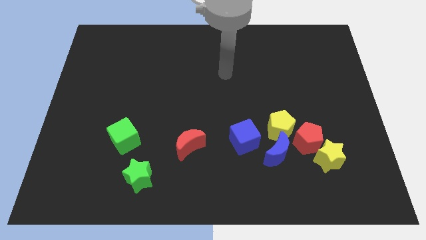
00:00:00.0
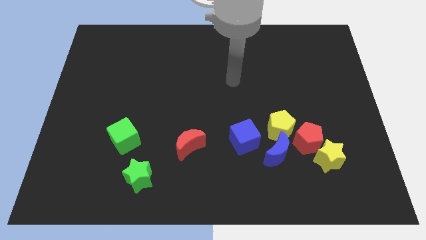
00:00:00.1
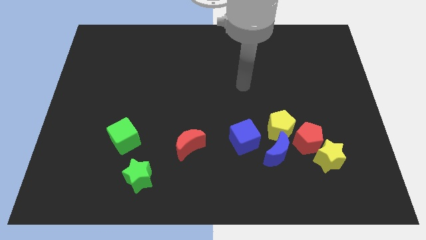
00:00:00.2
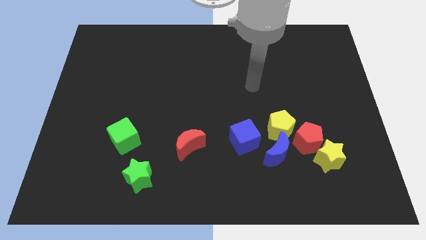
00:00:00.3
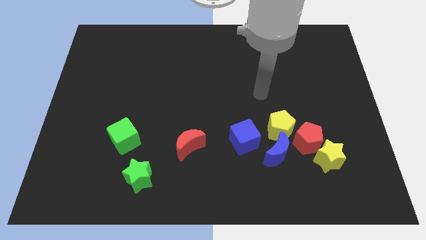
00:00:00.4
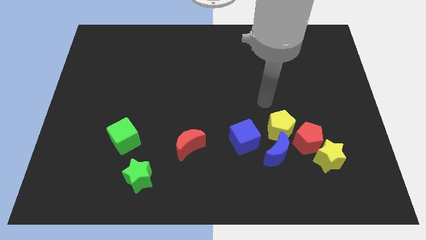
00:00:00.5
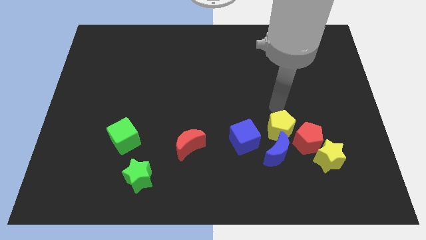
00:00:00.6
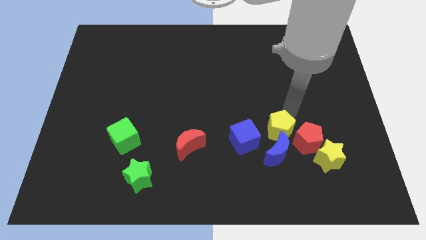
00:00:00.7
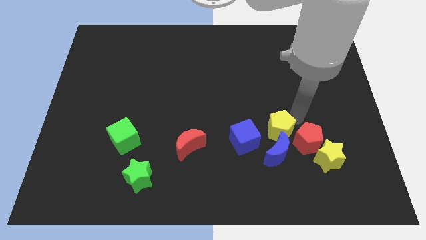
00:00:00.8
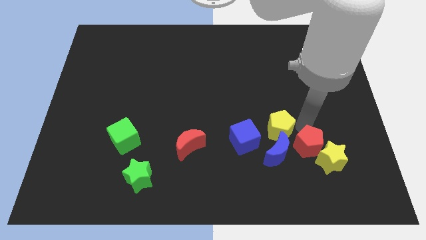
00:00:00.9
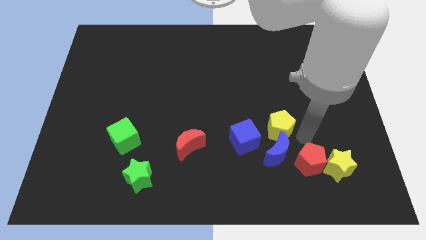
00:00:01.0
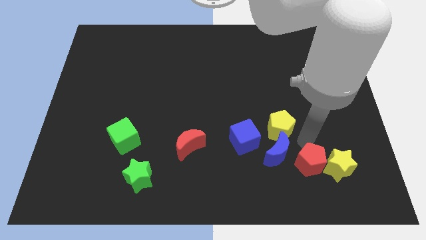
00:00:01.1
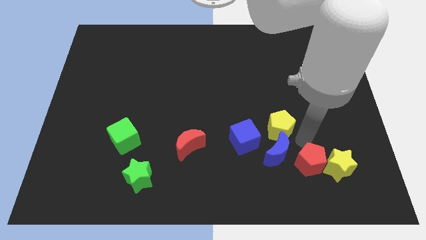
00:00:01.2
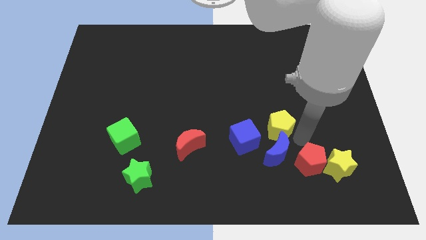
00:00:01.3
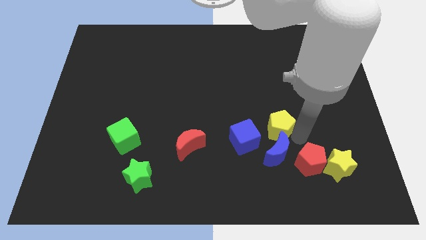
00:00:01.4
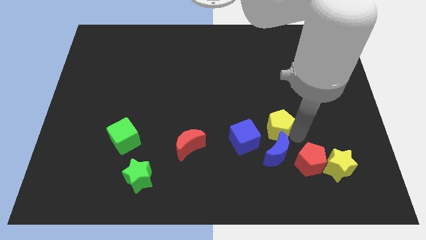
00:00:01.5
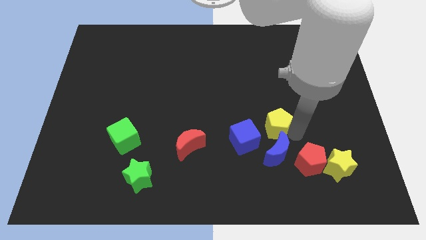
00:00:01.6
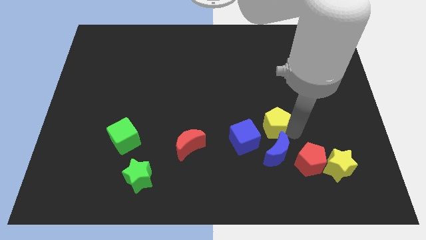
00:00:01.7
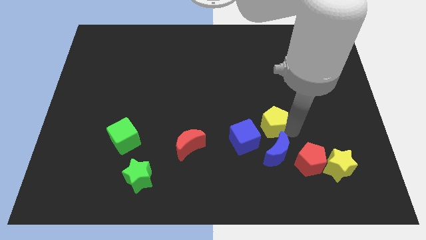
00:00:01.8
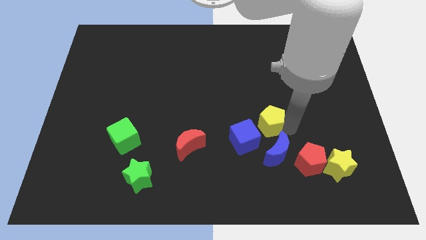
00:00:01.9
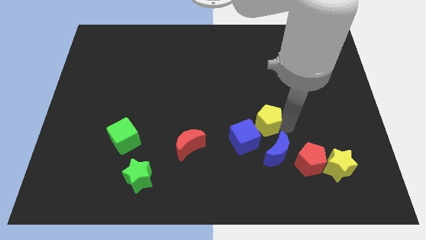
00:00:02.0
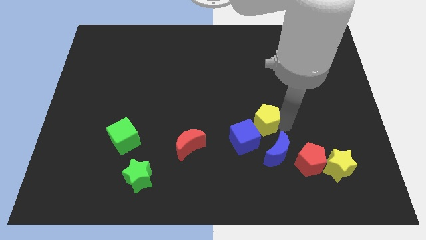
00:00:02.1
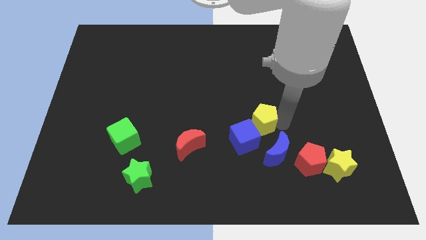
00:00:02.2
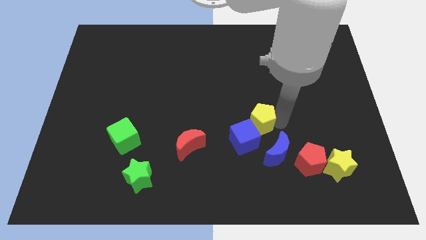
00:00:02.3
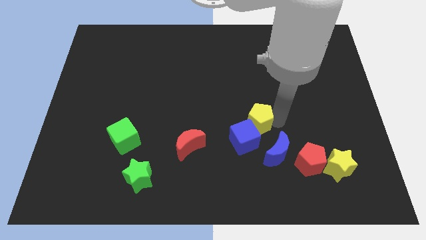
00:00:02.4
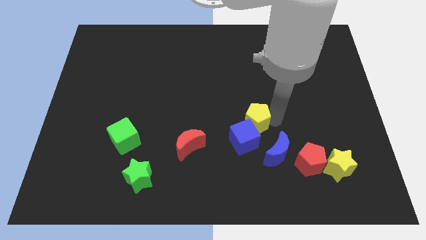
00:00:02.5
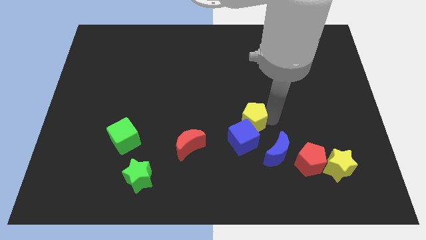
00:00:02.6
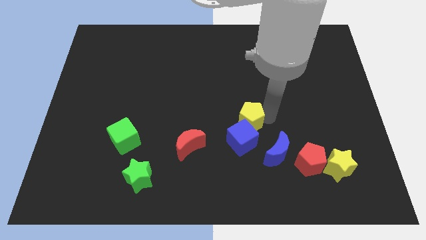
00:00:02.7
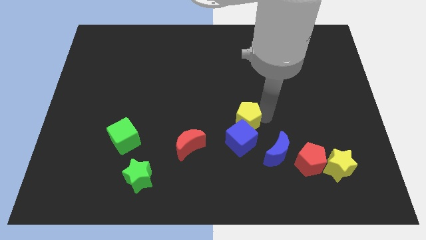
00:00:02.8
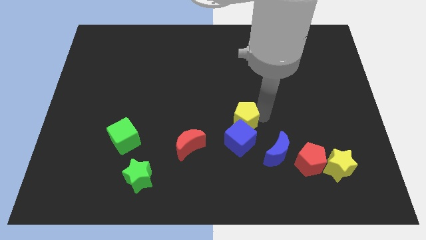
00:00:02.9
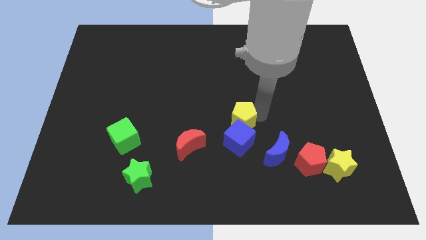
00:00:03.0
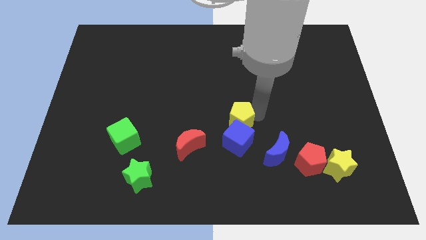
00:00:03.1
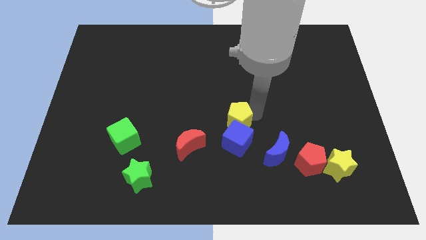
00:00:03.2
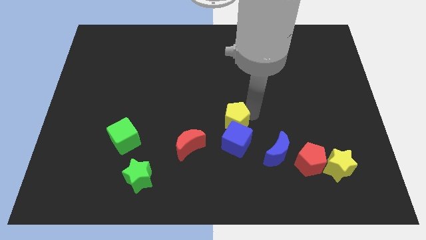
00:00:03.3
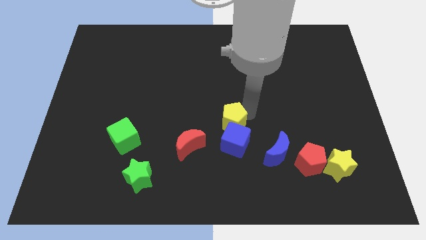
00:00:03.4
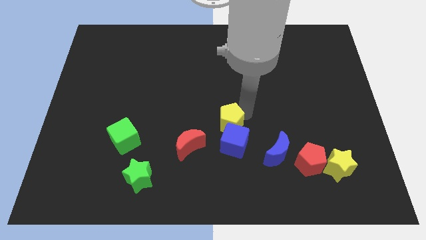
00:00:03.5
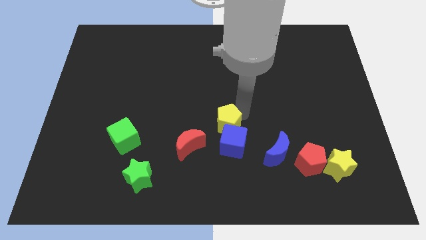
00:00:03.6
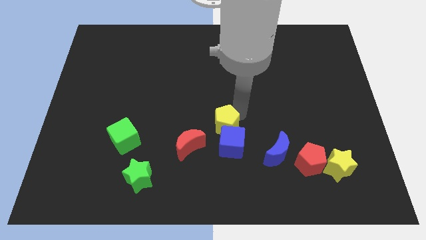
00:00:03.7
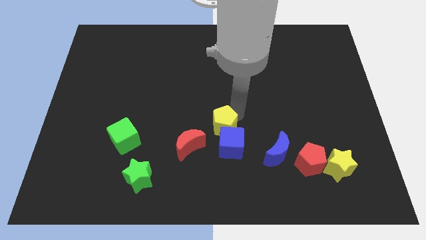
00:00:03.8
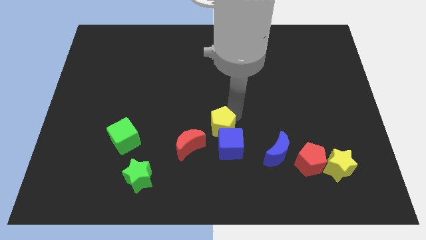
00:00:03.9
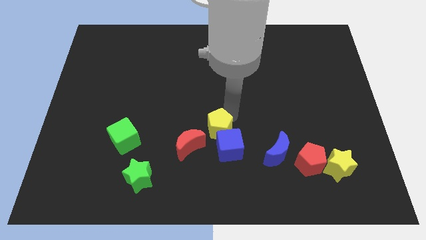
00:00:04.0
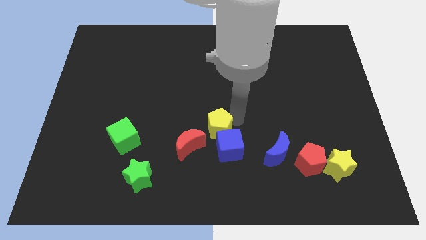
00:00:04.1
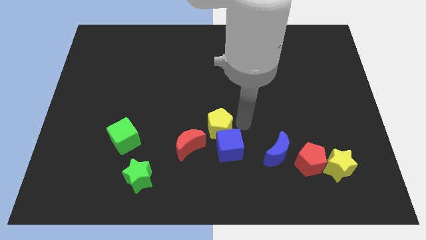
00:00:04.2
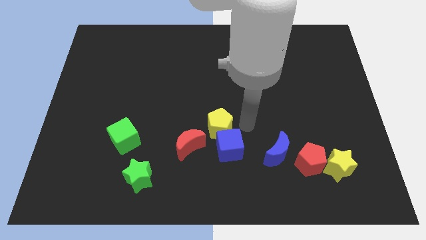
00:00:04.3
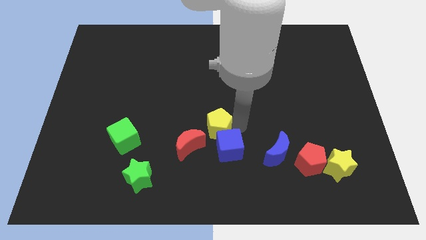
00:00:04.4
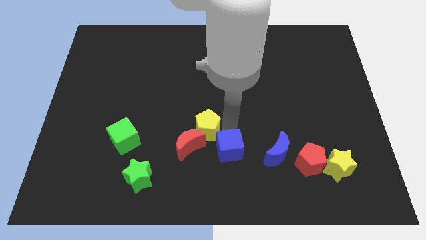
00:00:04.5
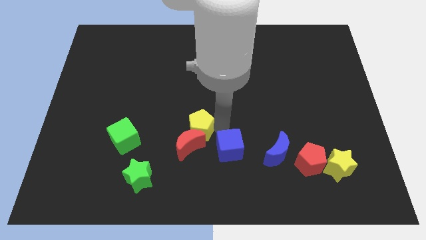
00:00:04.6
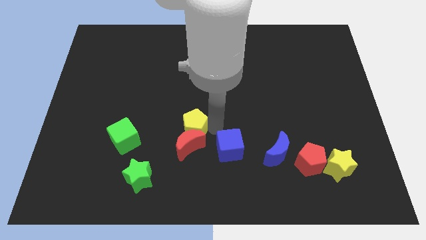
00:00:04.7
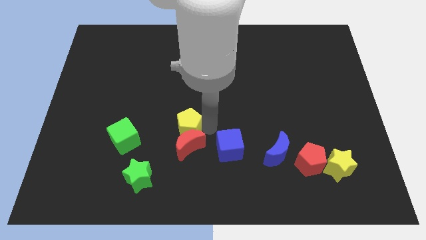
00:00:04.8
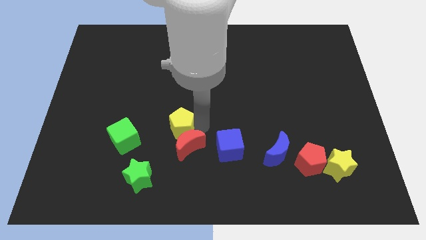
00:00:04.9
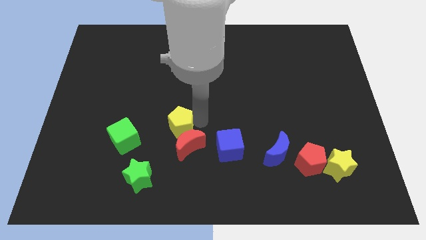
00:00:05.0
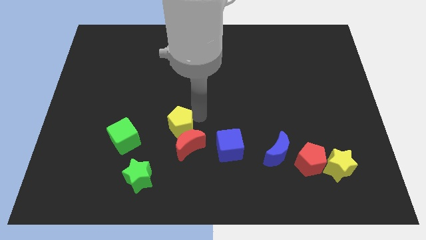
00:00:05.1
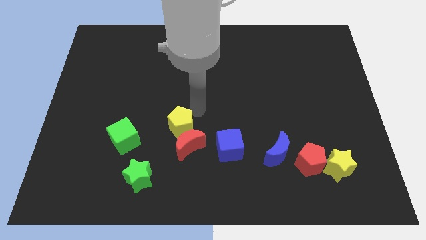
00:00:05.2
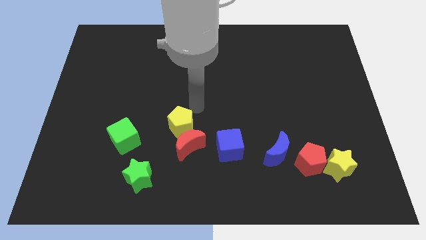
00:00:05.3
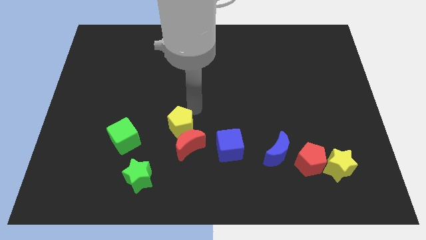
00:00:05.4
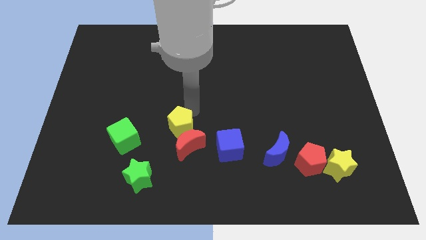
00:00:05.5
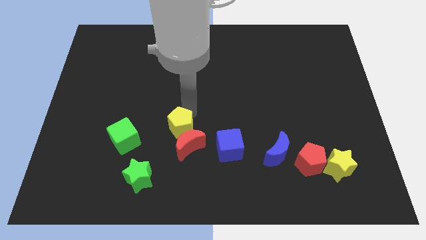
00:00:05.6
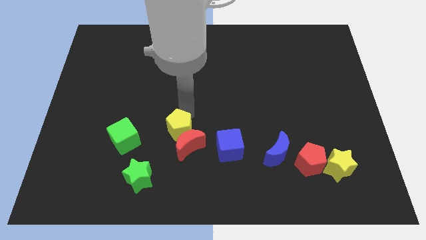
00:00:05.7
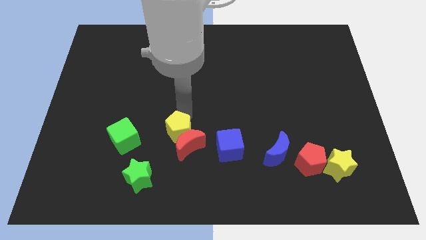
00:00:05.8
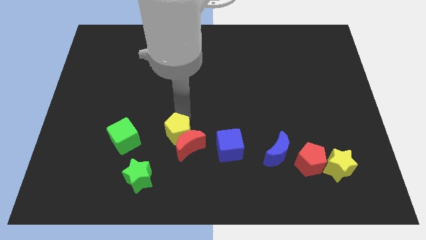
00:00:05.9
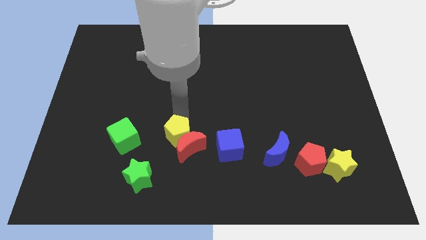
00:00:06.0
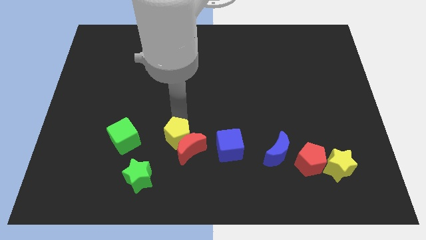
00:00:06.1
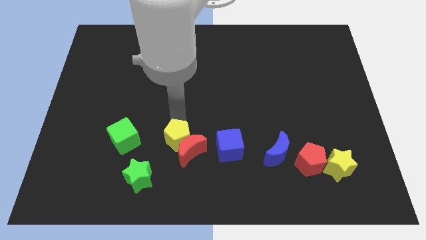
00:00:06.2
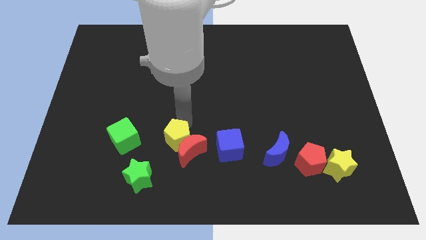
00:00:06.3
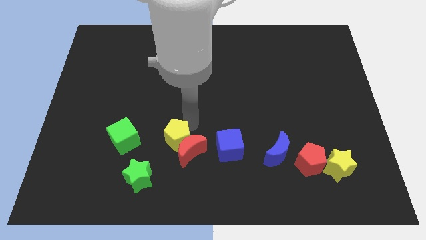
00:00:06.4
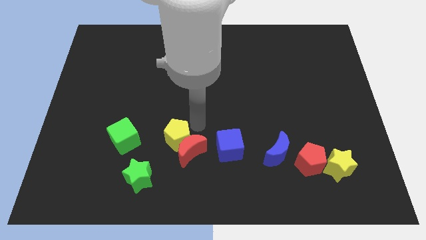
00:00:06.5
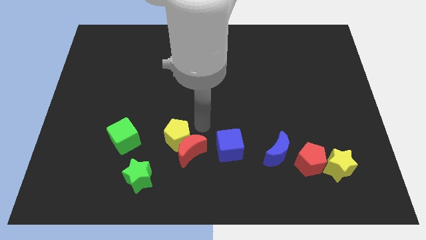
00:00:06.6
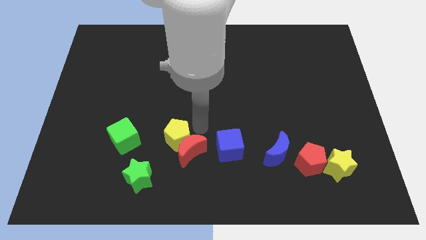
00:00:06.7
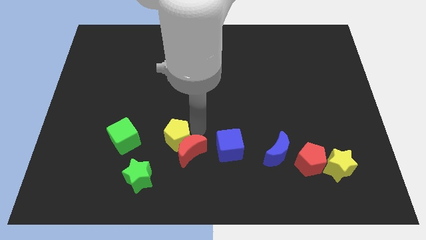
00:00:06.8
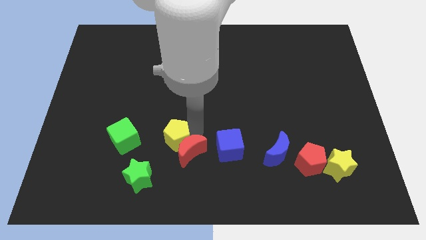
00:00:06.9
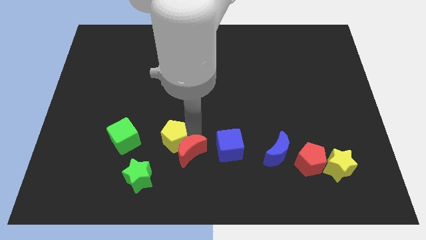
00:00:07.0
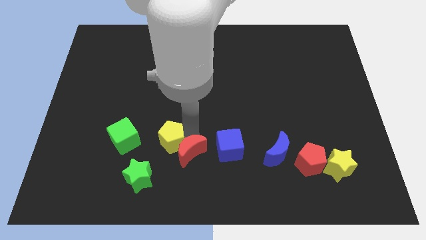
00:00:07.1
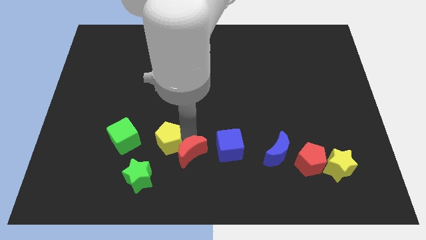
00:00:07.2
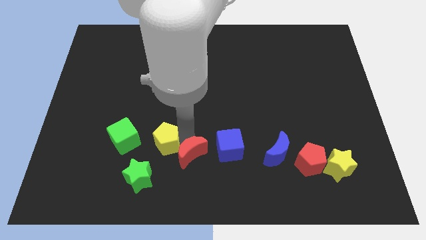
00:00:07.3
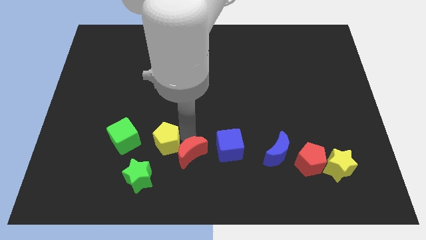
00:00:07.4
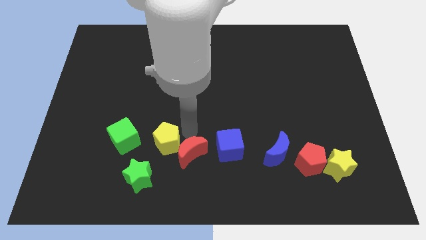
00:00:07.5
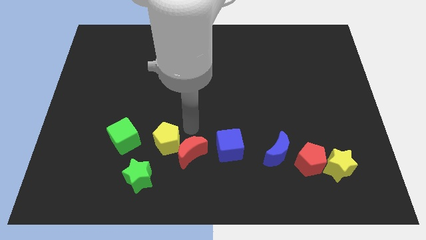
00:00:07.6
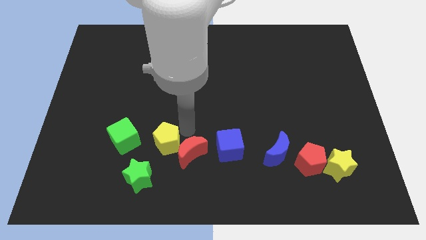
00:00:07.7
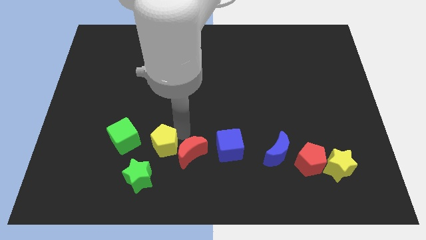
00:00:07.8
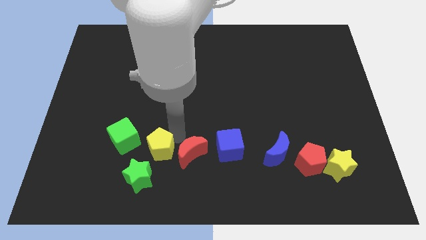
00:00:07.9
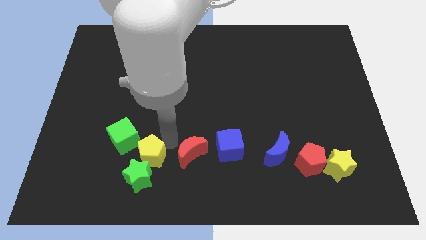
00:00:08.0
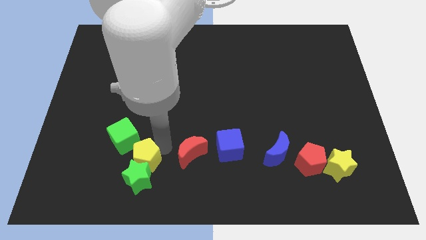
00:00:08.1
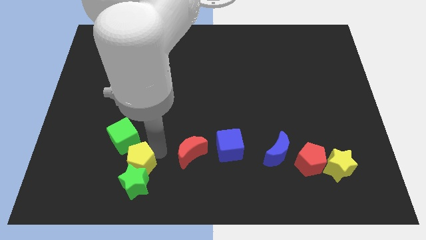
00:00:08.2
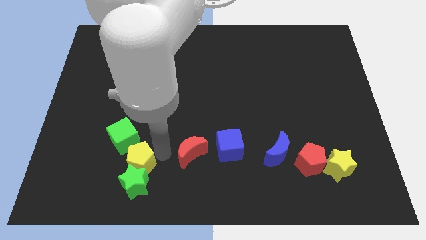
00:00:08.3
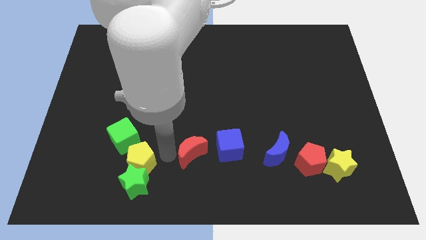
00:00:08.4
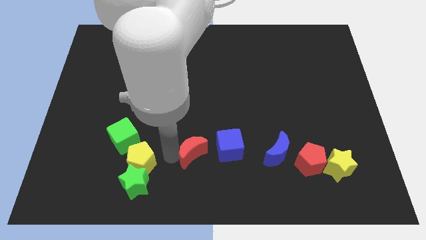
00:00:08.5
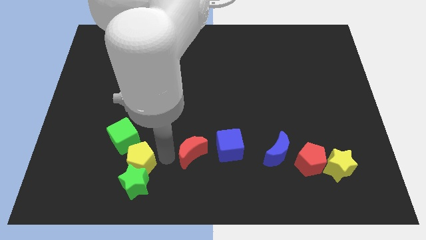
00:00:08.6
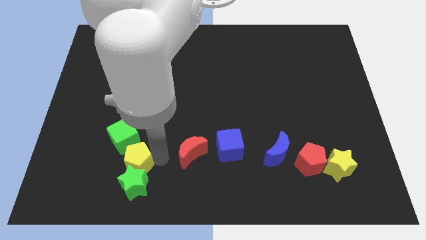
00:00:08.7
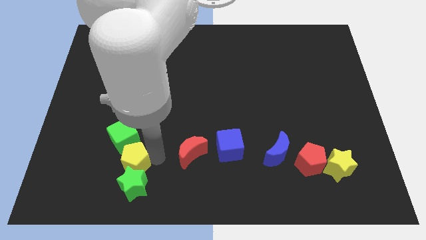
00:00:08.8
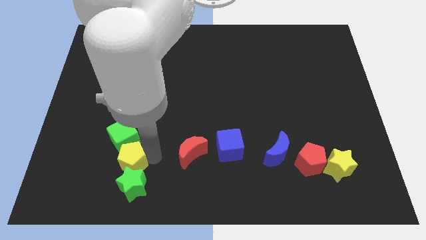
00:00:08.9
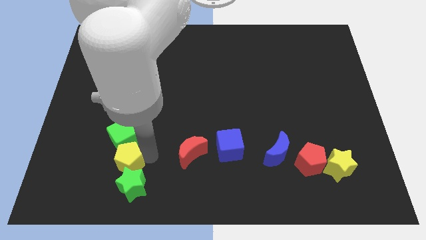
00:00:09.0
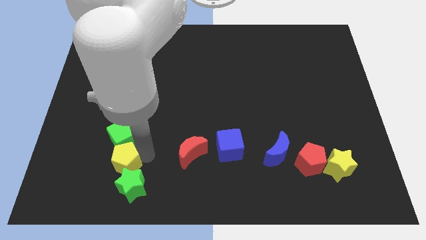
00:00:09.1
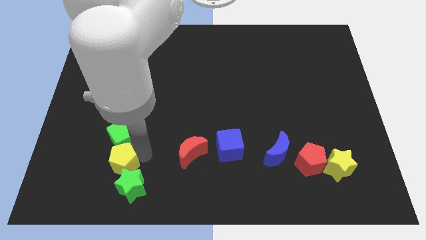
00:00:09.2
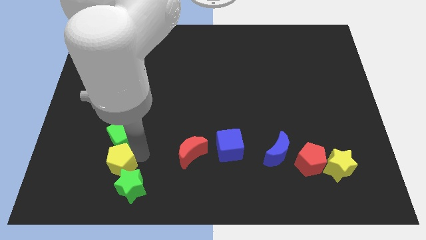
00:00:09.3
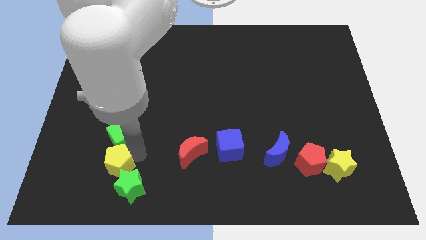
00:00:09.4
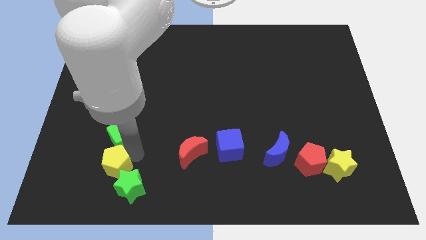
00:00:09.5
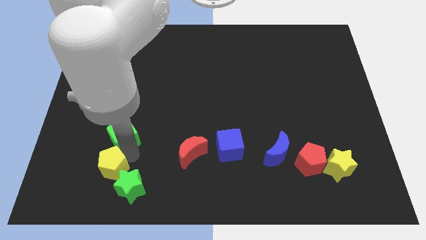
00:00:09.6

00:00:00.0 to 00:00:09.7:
move the yellow pentagon to the left side of the green star
